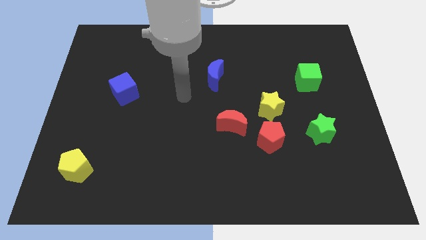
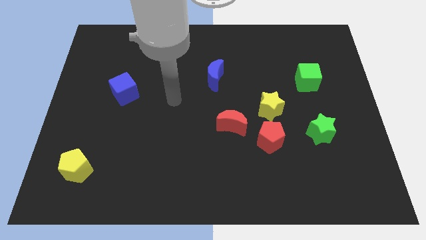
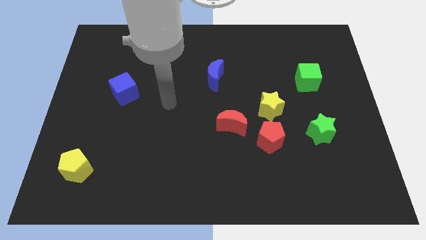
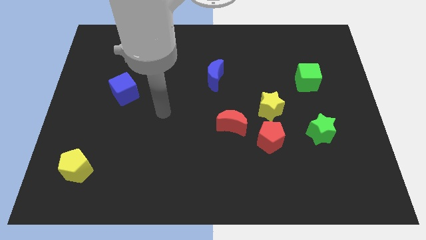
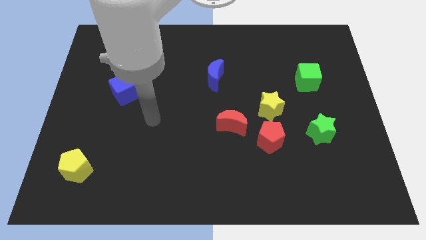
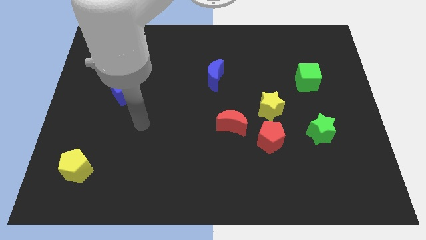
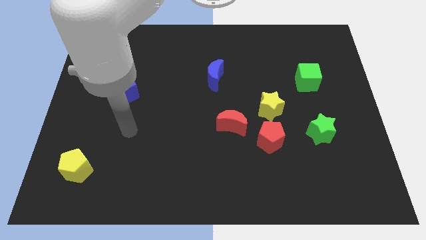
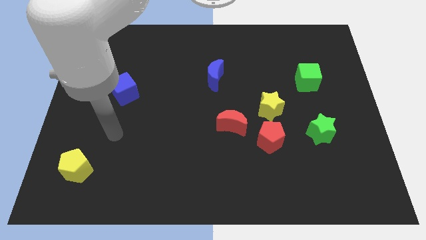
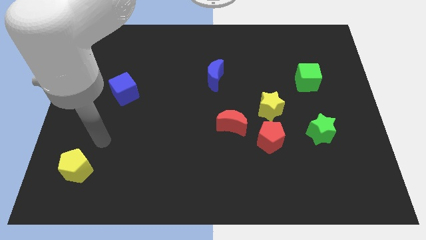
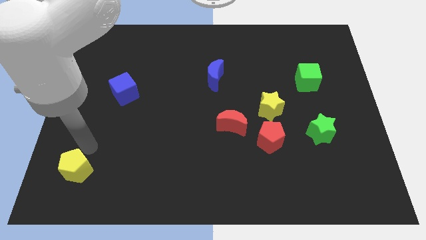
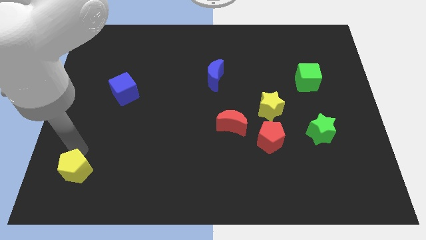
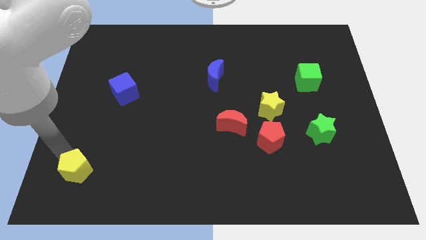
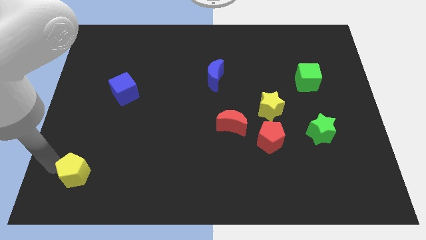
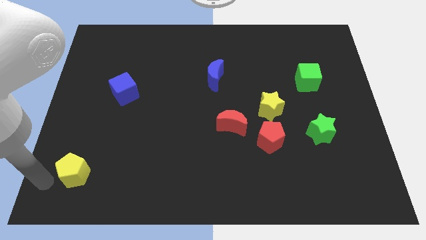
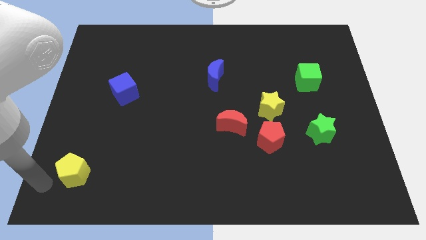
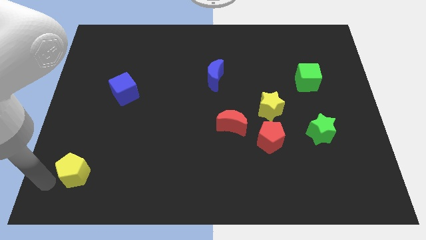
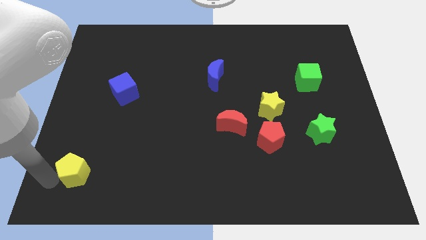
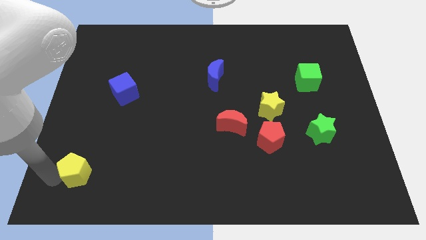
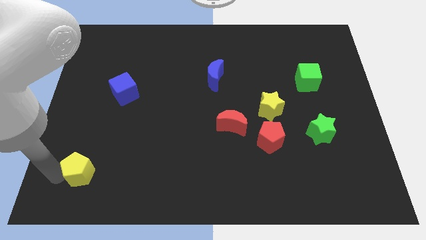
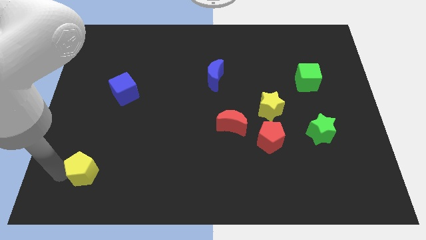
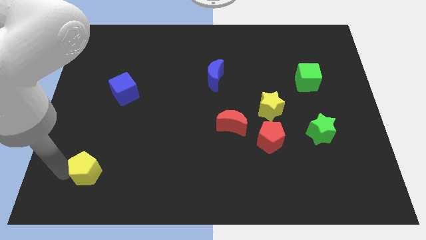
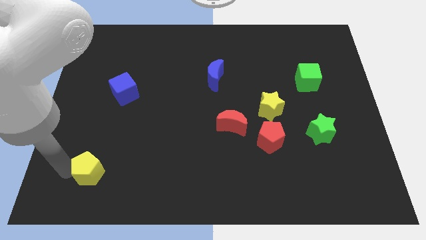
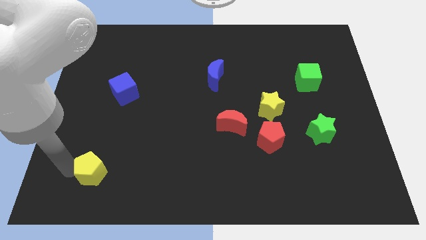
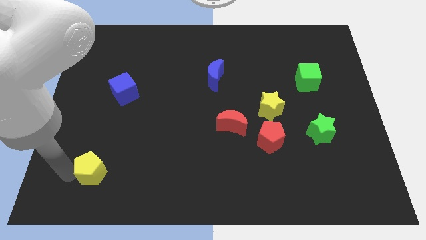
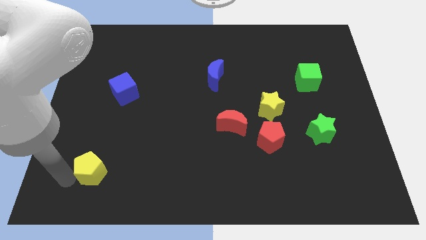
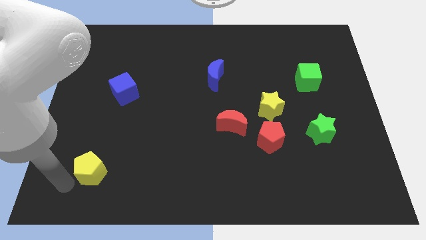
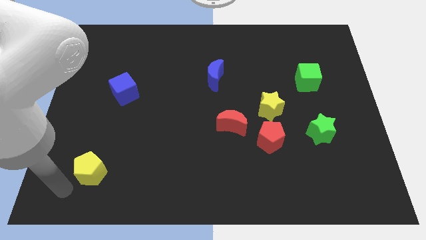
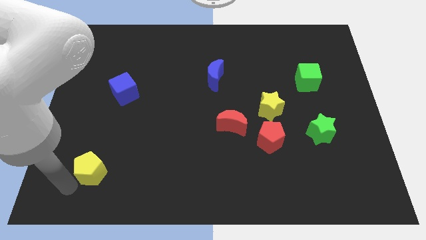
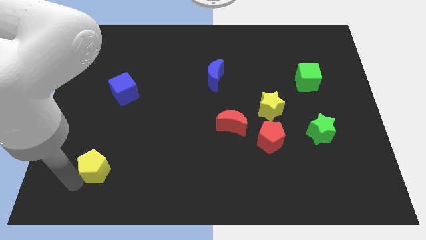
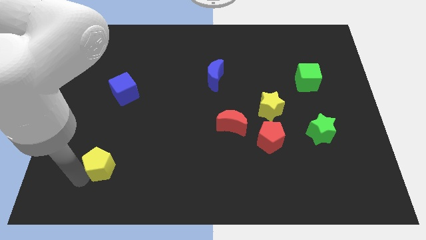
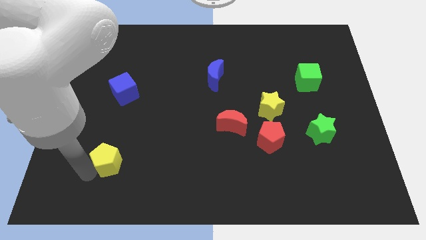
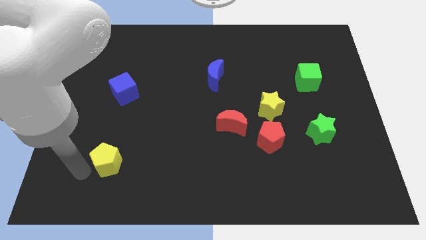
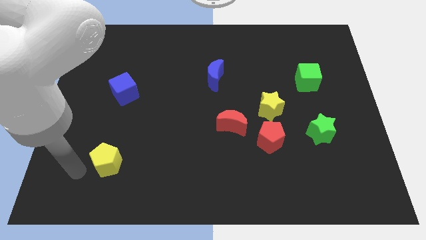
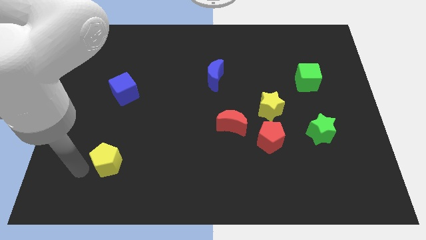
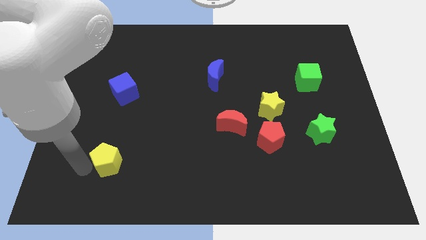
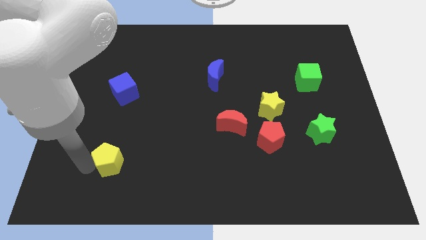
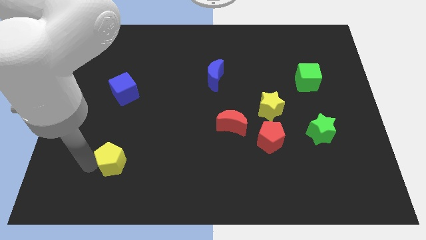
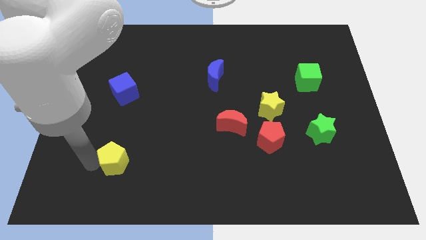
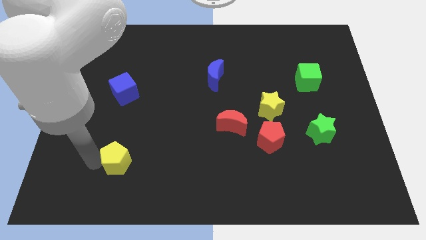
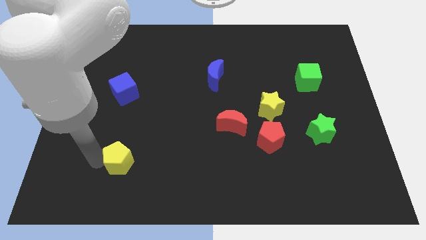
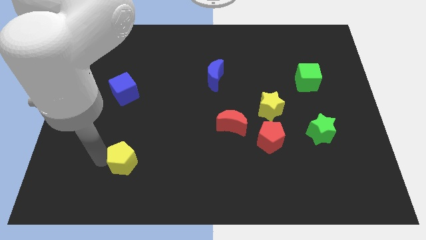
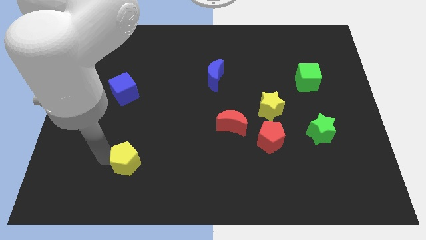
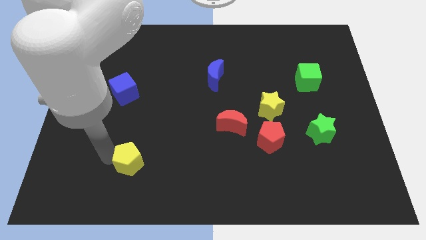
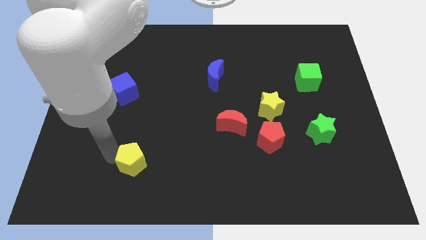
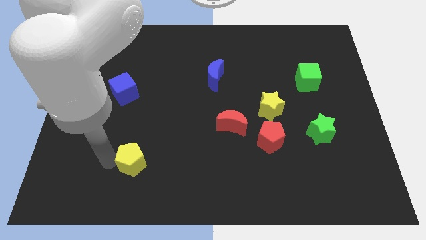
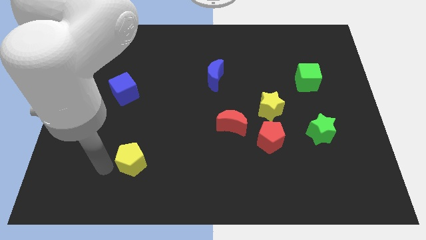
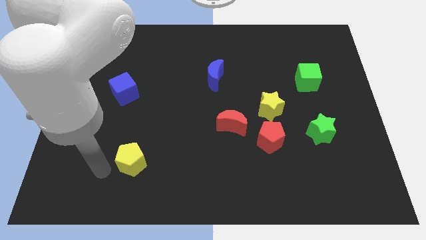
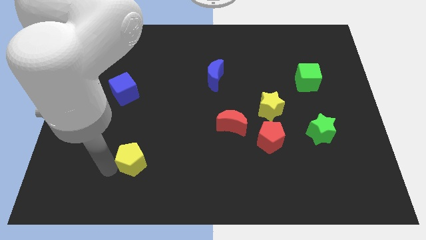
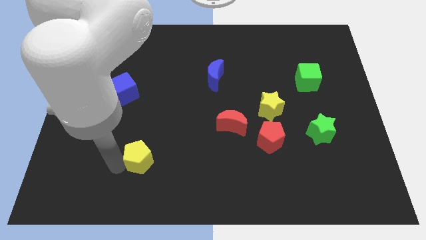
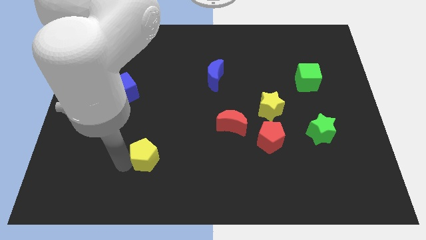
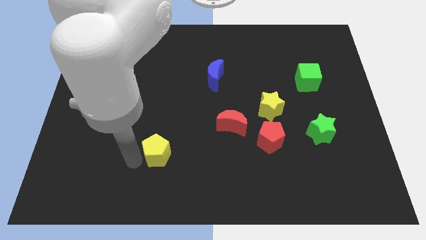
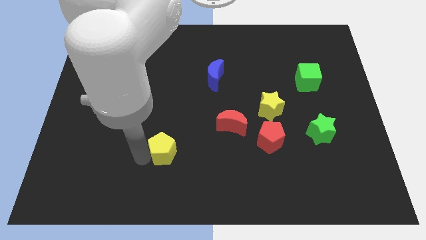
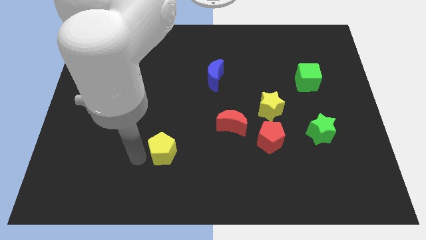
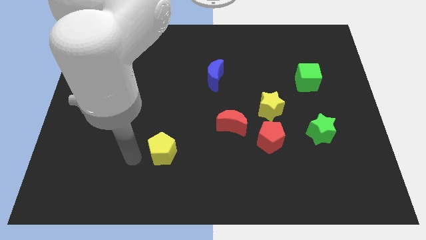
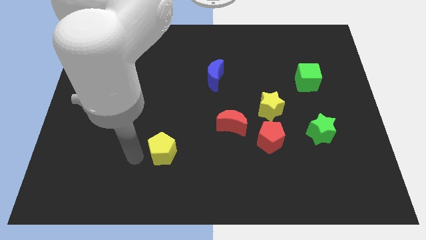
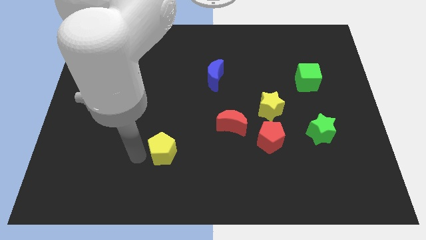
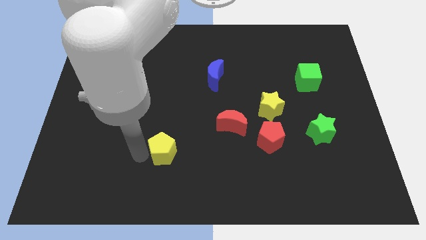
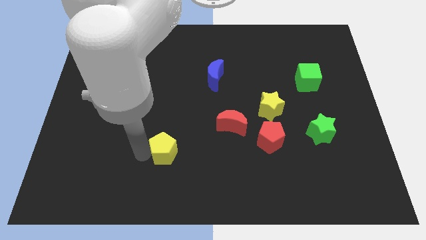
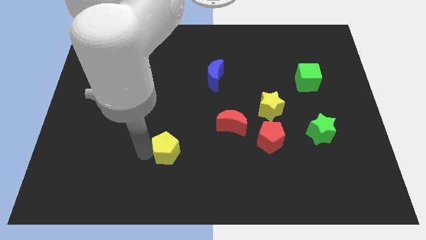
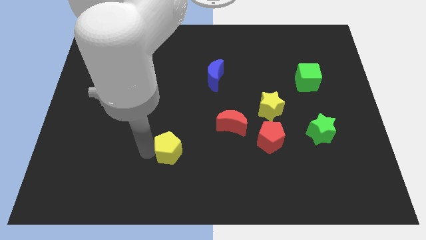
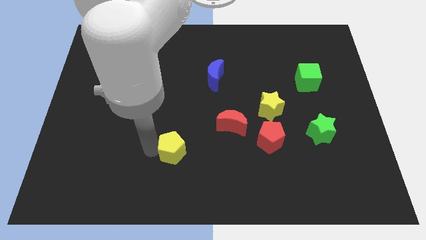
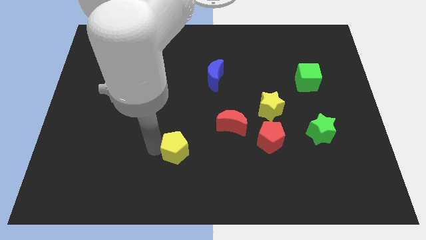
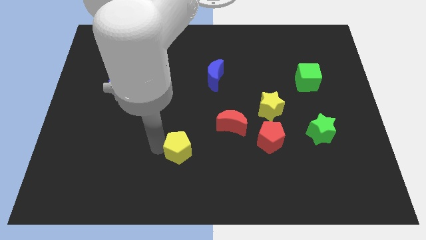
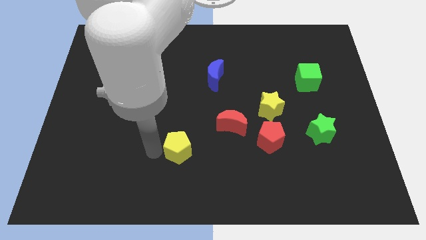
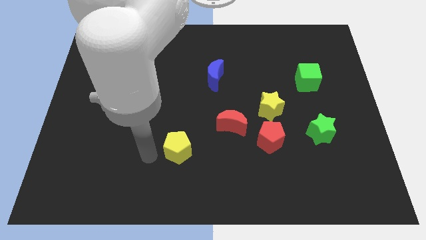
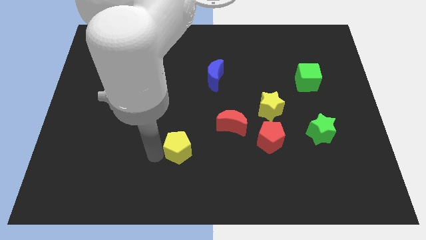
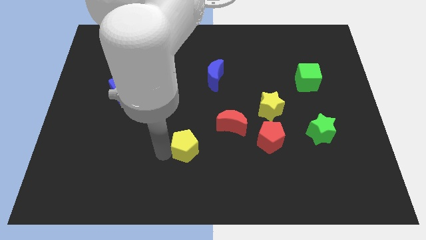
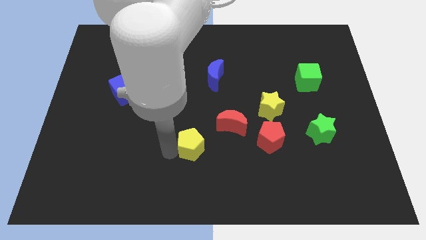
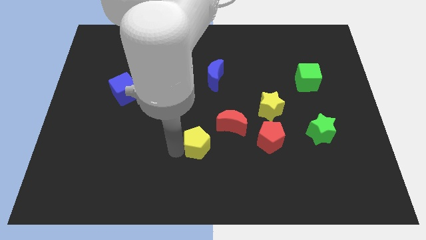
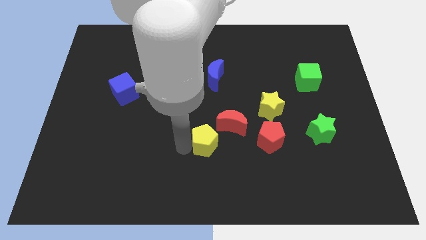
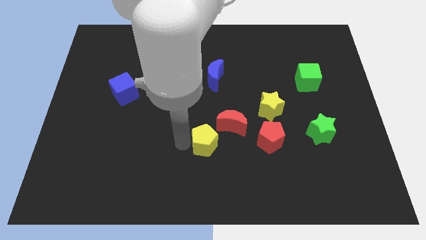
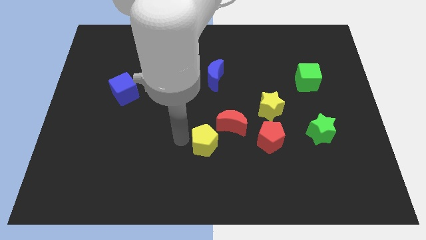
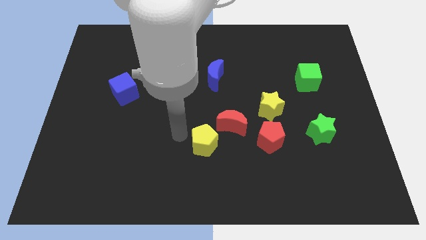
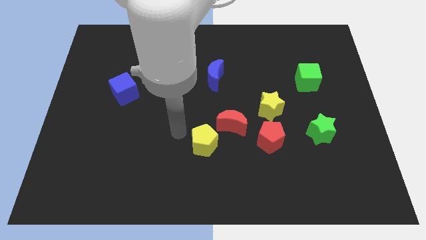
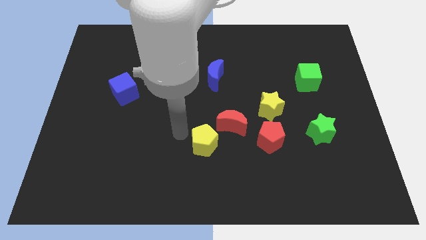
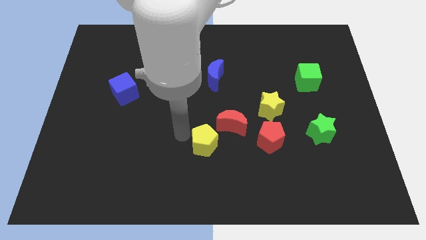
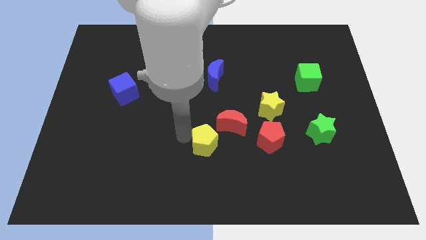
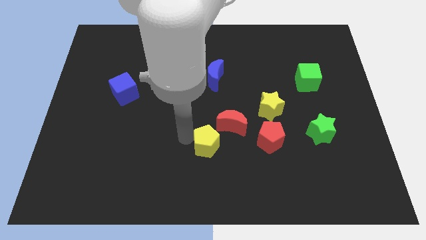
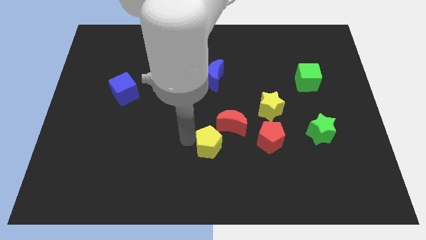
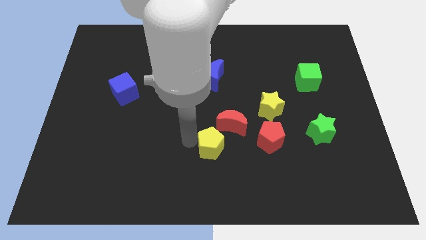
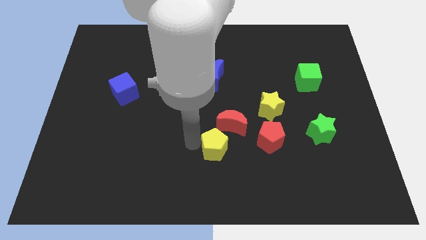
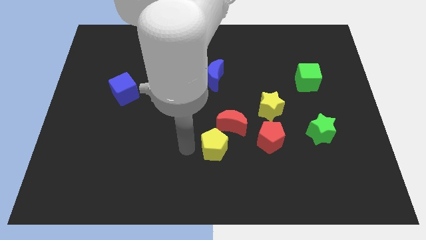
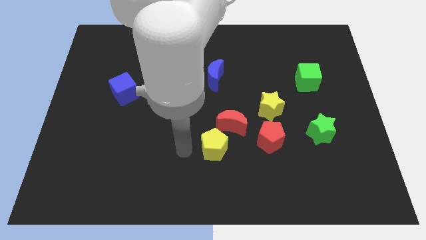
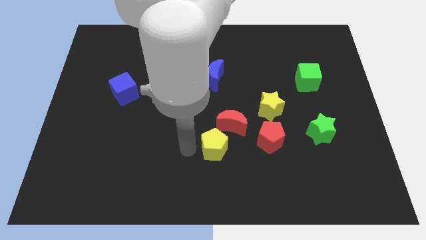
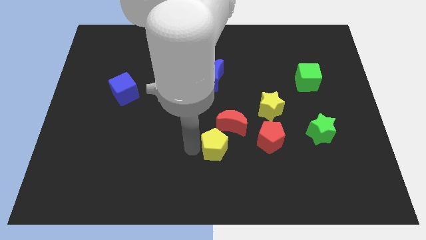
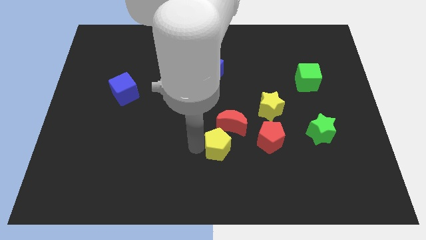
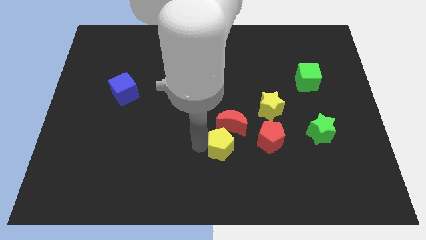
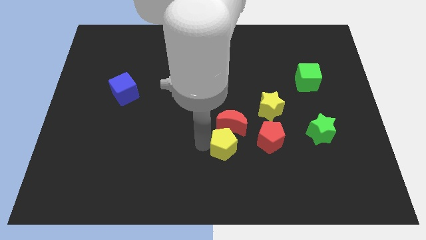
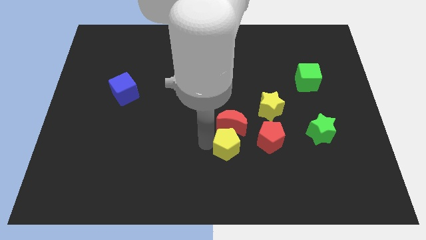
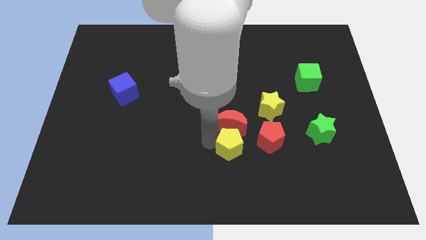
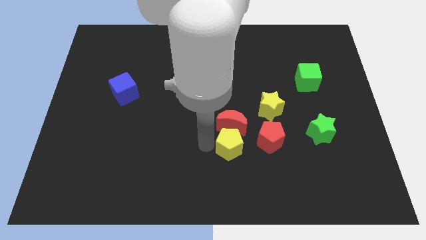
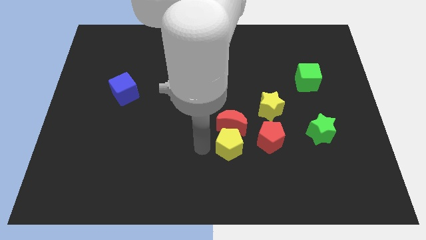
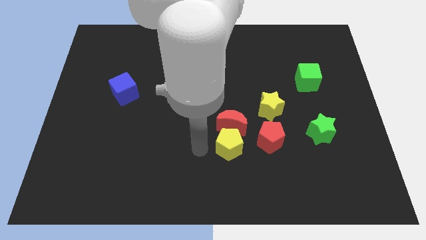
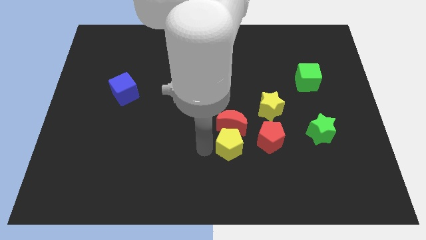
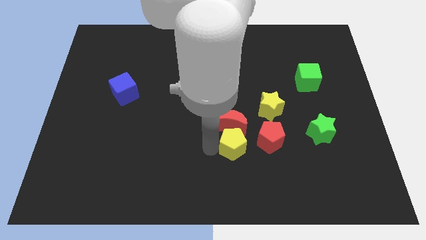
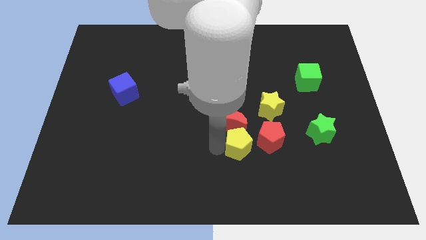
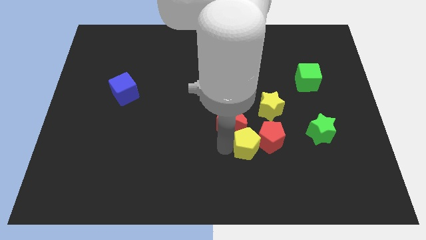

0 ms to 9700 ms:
push the yellow pentagon next to the red pentagon
